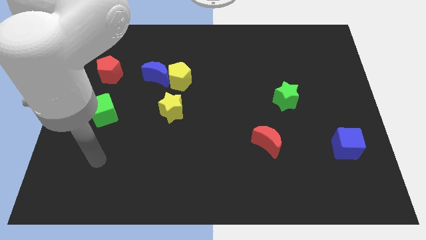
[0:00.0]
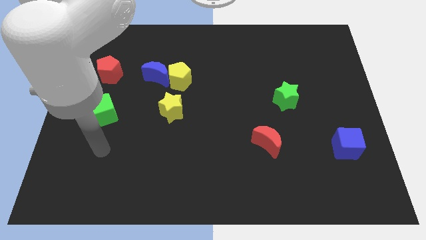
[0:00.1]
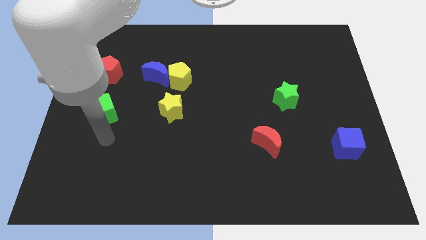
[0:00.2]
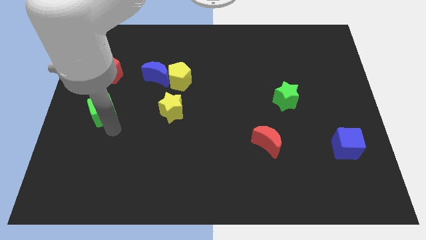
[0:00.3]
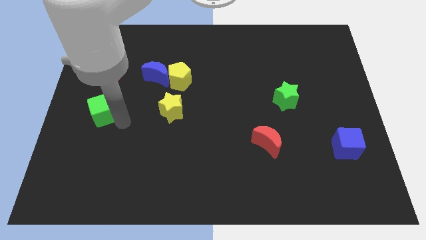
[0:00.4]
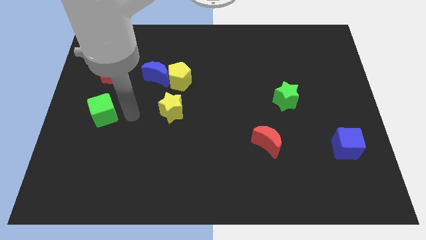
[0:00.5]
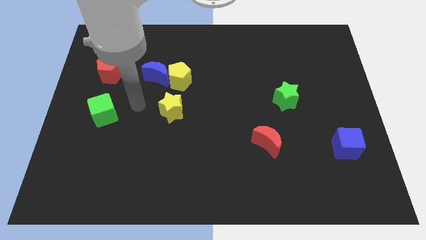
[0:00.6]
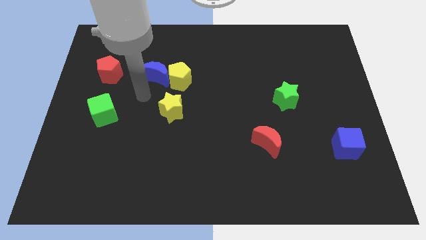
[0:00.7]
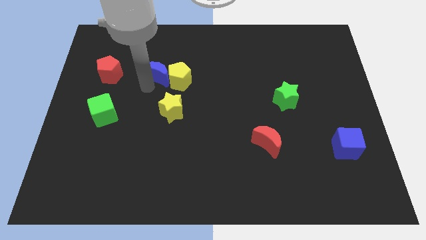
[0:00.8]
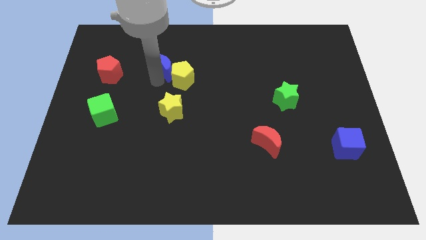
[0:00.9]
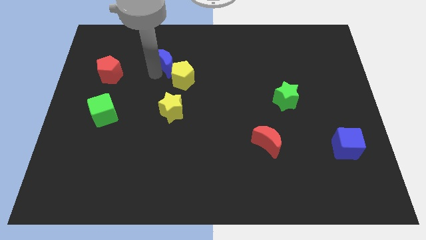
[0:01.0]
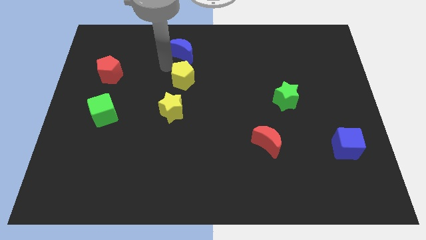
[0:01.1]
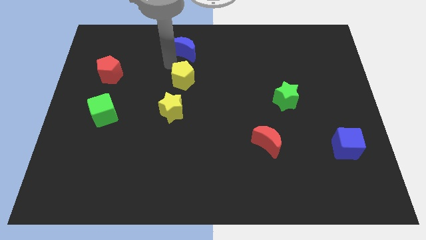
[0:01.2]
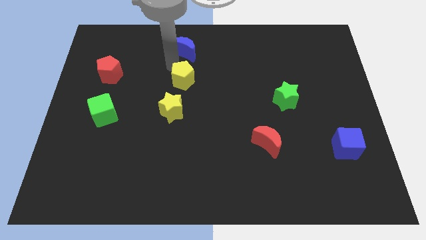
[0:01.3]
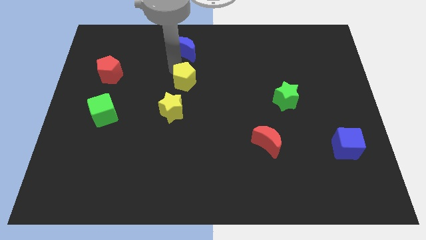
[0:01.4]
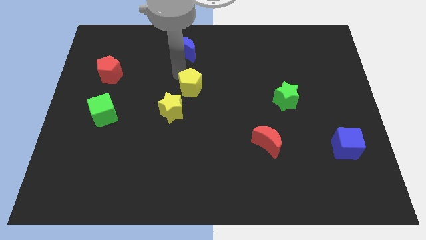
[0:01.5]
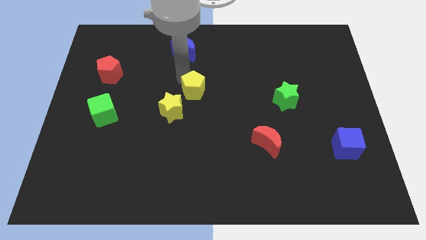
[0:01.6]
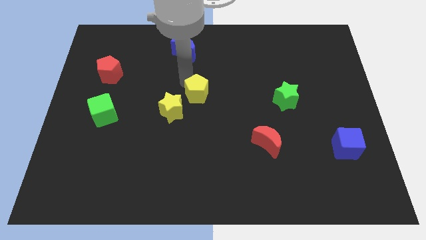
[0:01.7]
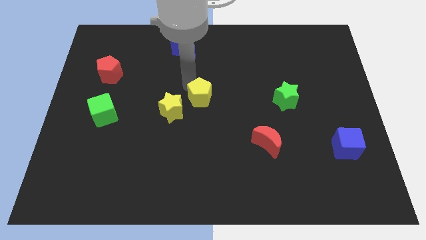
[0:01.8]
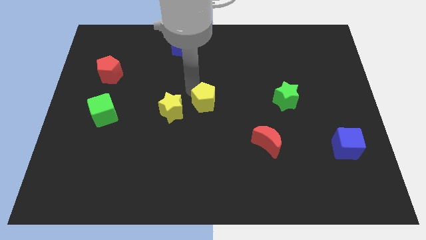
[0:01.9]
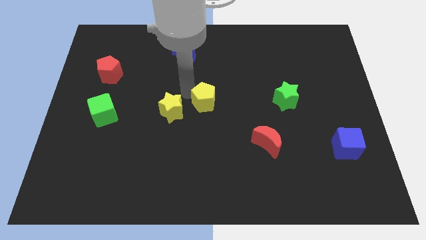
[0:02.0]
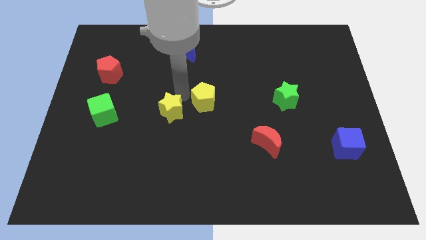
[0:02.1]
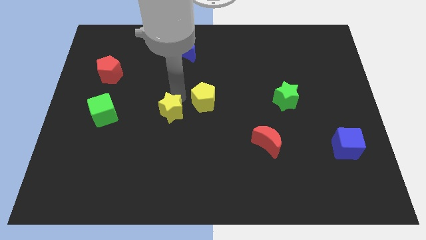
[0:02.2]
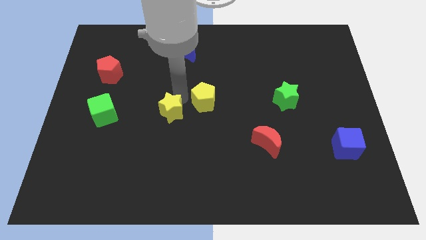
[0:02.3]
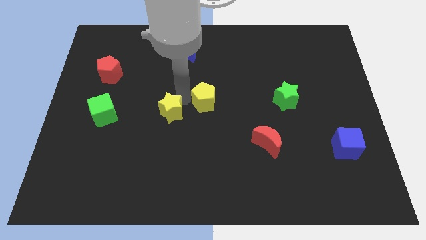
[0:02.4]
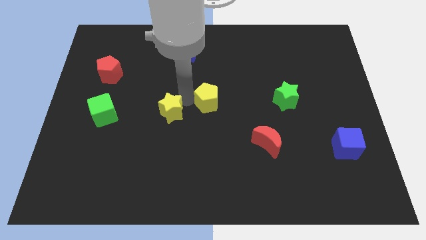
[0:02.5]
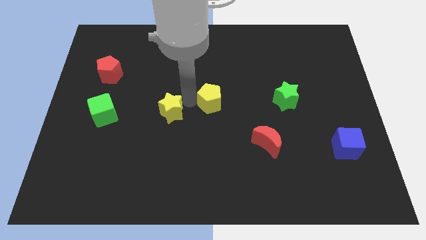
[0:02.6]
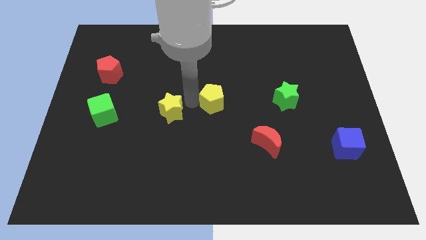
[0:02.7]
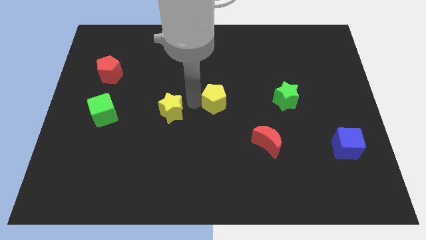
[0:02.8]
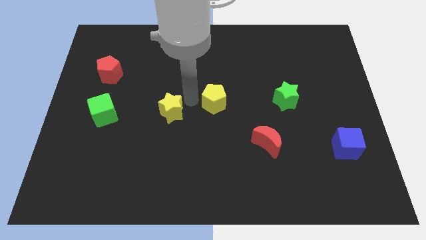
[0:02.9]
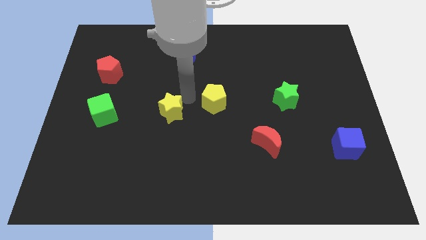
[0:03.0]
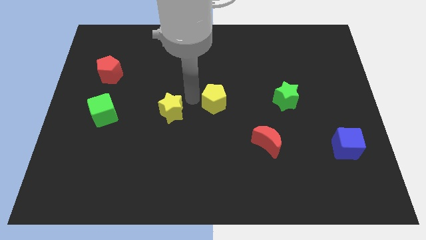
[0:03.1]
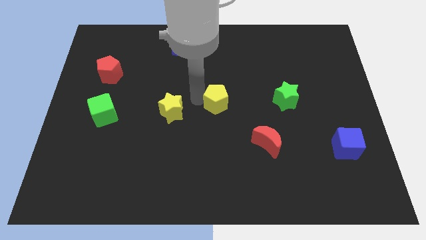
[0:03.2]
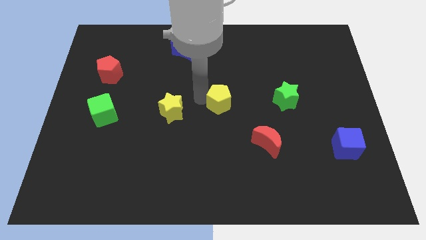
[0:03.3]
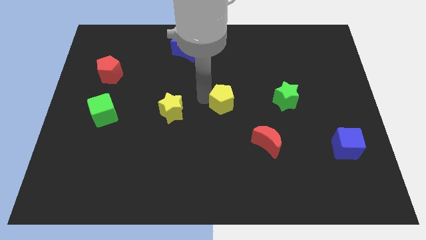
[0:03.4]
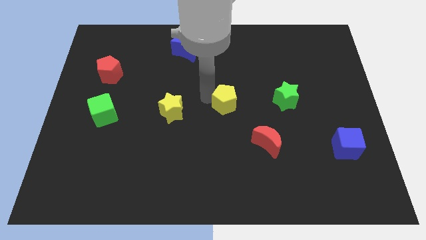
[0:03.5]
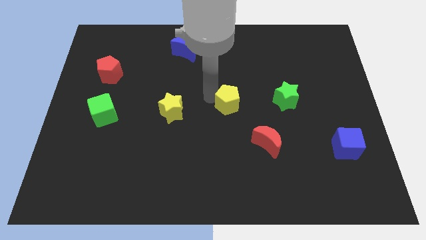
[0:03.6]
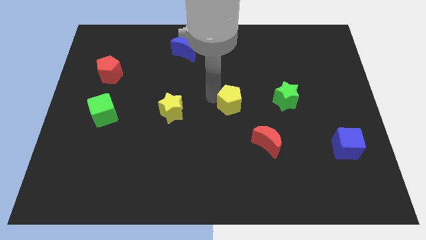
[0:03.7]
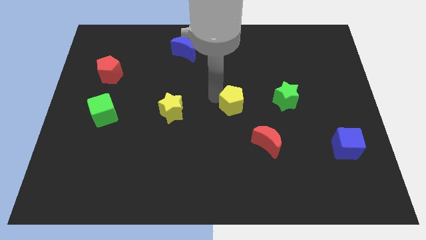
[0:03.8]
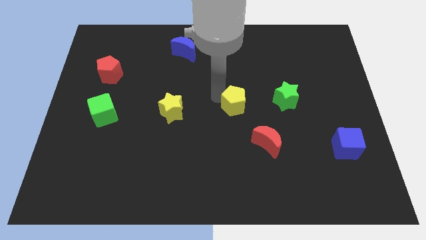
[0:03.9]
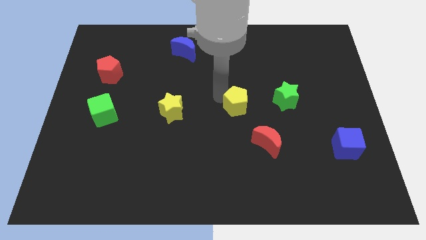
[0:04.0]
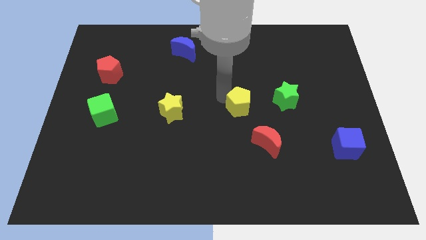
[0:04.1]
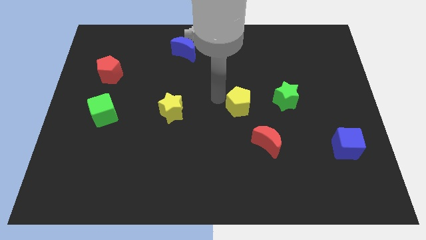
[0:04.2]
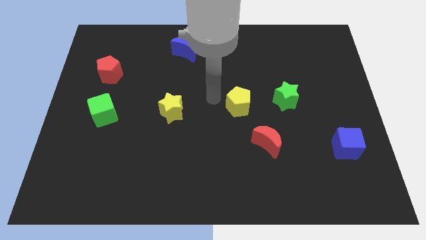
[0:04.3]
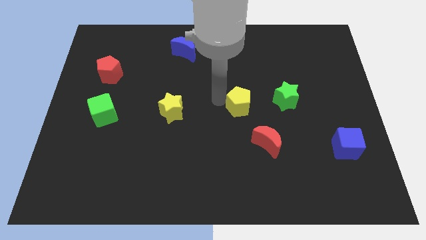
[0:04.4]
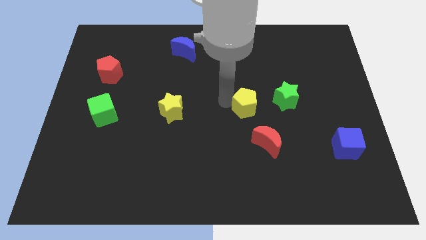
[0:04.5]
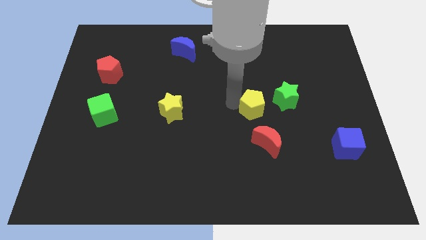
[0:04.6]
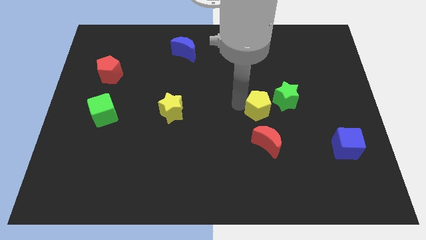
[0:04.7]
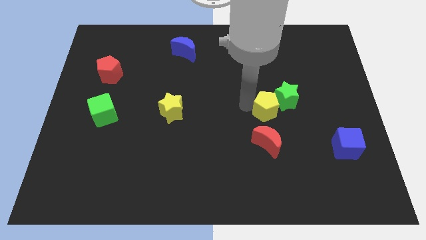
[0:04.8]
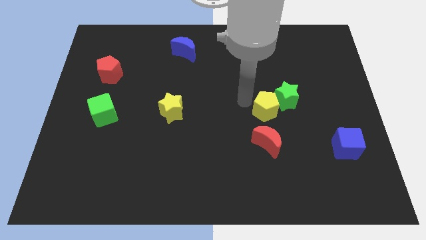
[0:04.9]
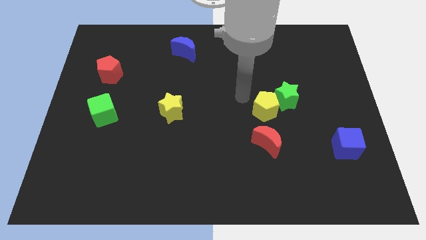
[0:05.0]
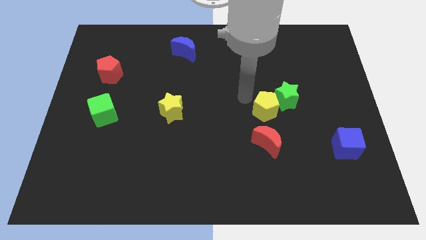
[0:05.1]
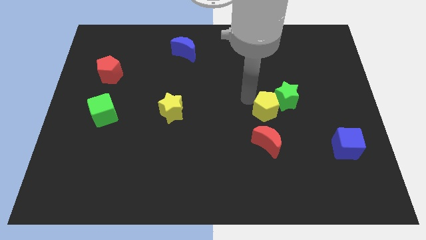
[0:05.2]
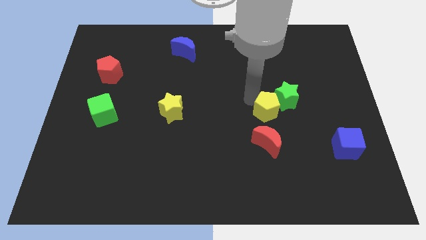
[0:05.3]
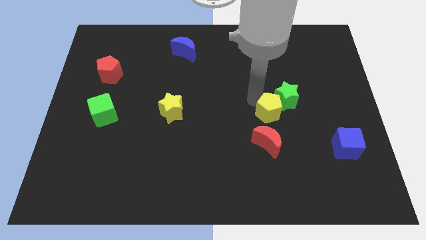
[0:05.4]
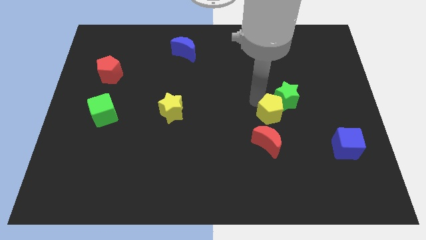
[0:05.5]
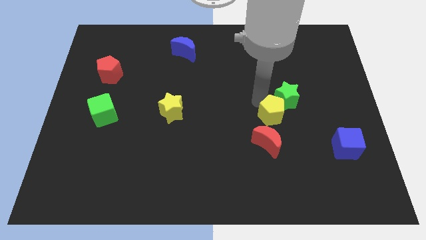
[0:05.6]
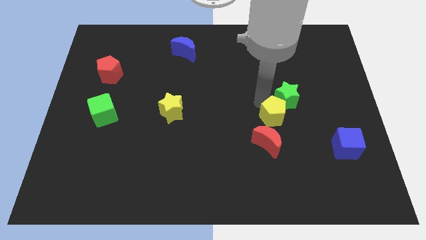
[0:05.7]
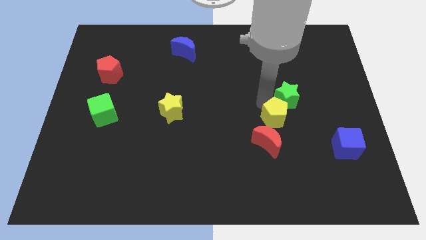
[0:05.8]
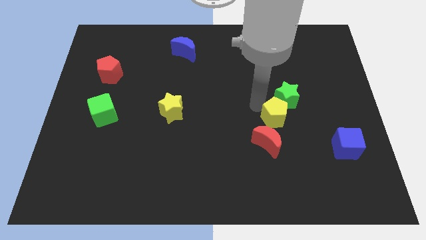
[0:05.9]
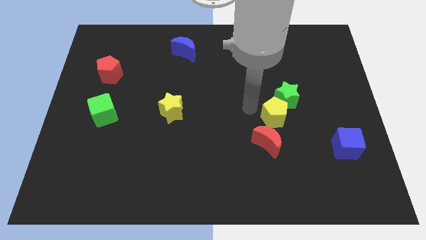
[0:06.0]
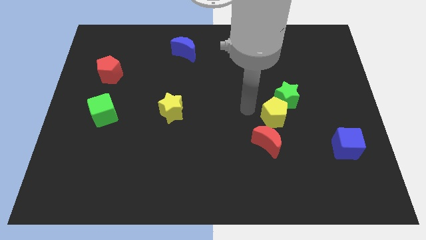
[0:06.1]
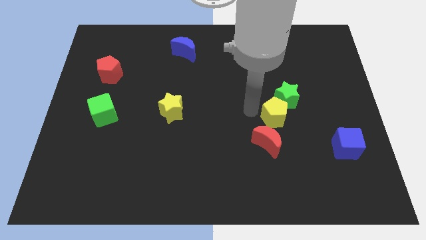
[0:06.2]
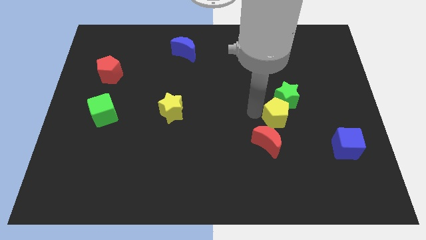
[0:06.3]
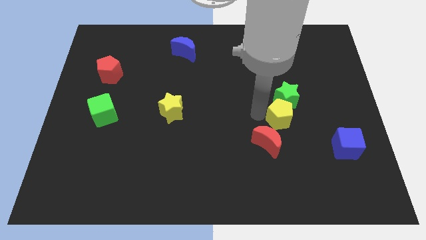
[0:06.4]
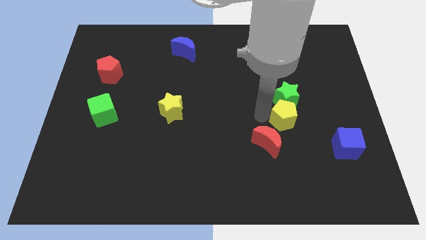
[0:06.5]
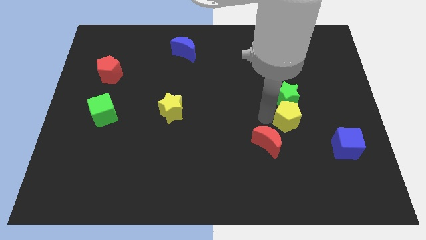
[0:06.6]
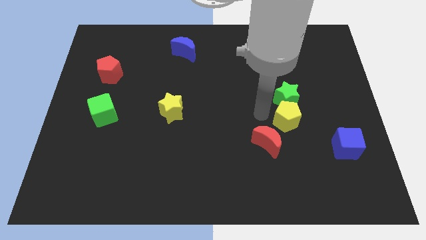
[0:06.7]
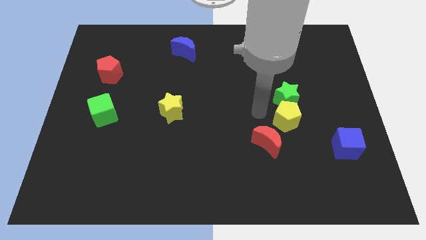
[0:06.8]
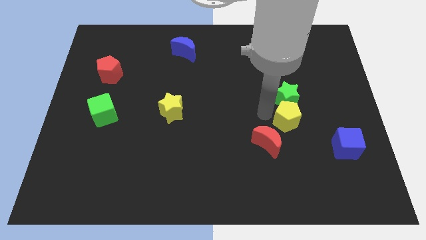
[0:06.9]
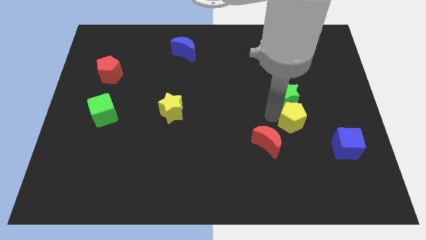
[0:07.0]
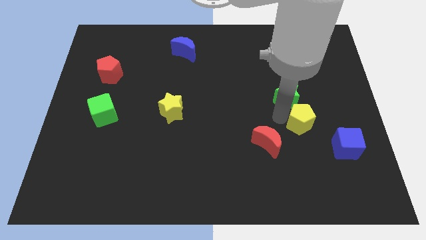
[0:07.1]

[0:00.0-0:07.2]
push the yellow pentagon diagonally up and to the left of the blue cube
